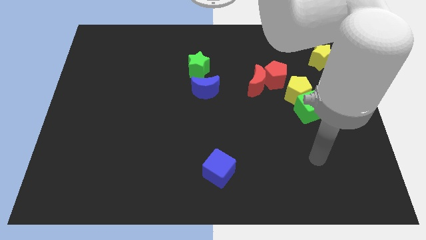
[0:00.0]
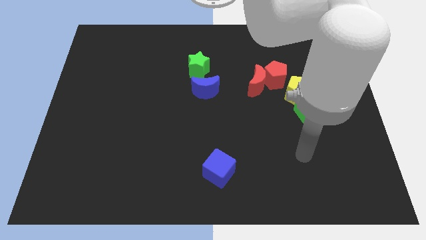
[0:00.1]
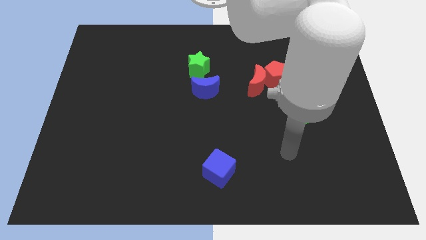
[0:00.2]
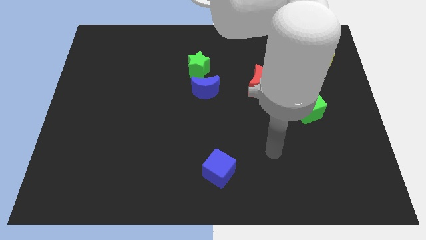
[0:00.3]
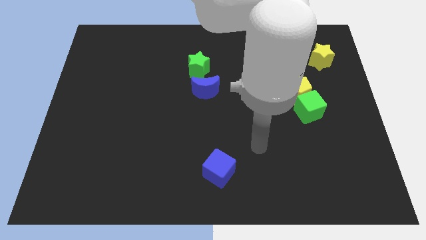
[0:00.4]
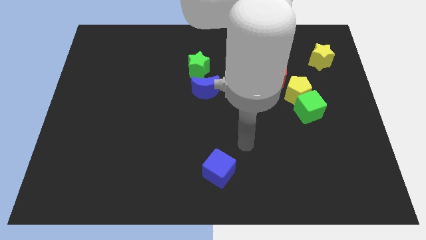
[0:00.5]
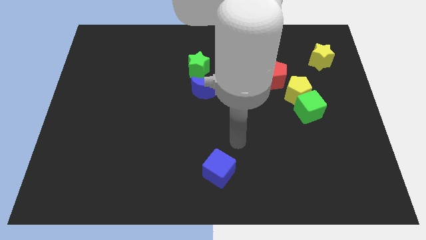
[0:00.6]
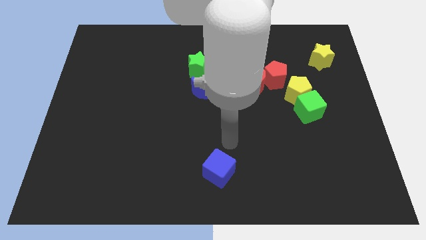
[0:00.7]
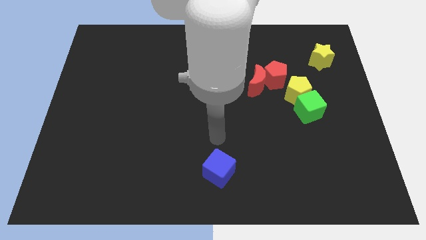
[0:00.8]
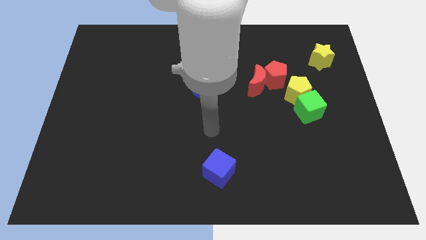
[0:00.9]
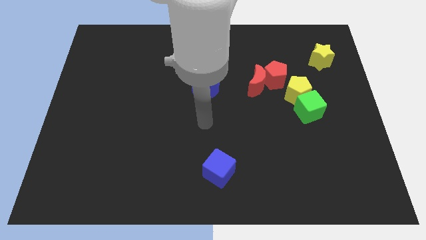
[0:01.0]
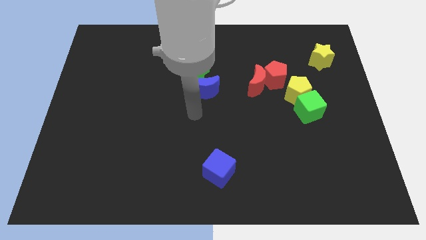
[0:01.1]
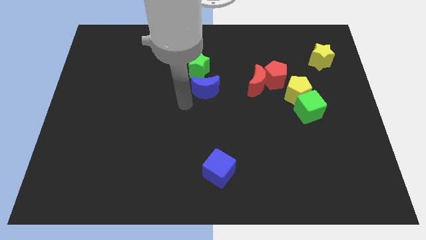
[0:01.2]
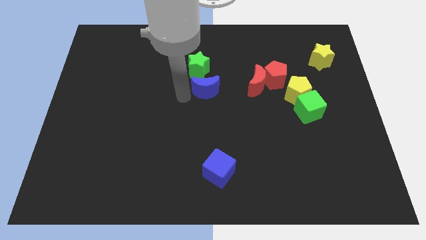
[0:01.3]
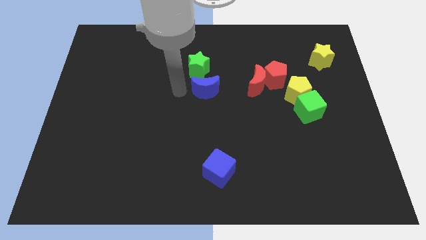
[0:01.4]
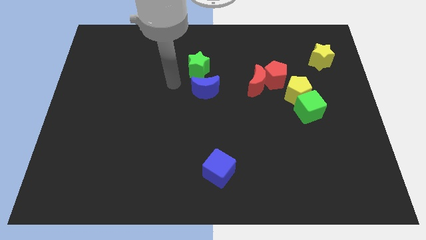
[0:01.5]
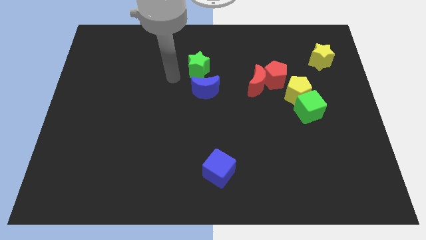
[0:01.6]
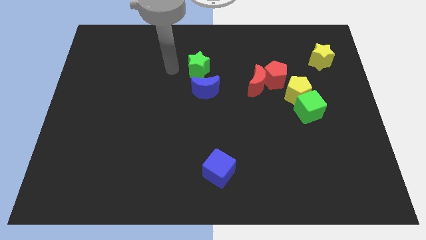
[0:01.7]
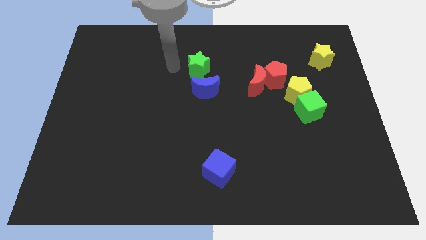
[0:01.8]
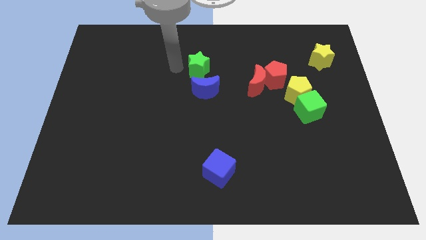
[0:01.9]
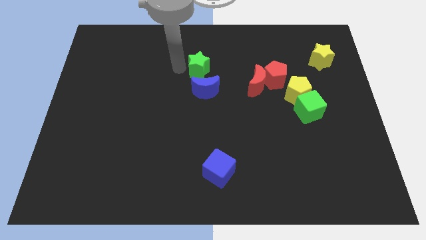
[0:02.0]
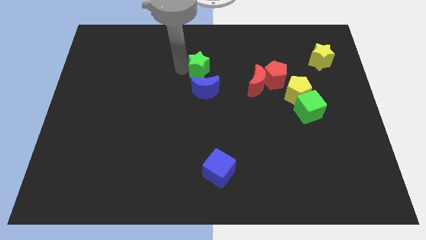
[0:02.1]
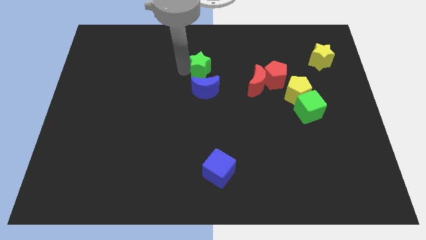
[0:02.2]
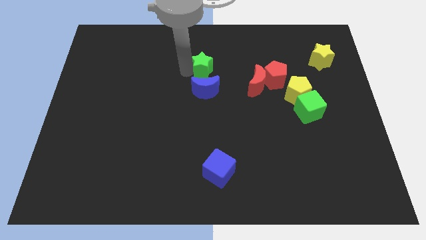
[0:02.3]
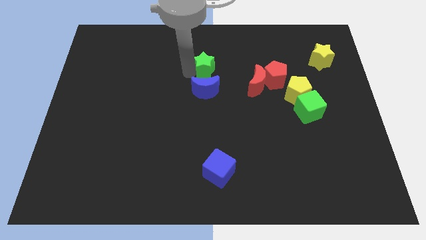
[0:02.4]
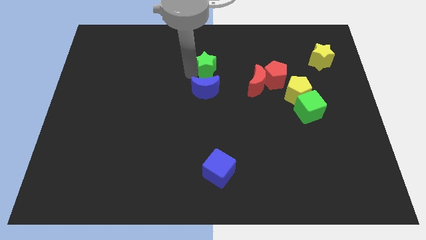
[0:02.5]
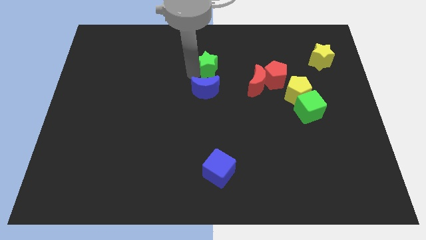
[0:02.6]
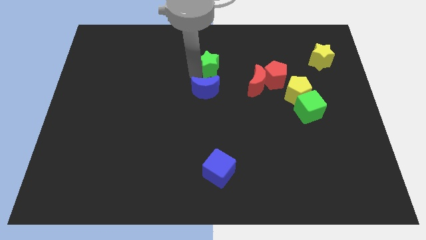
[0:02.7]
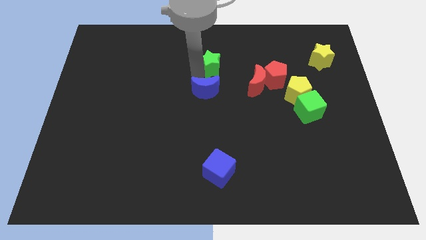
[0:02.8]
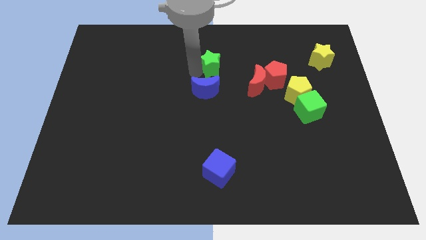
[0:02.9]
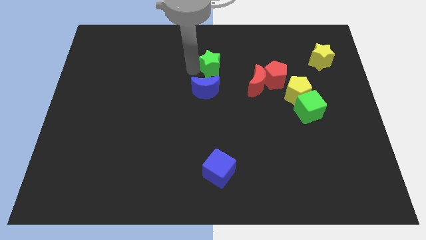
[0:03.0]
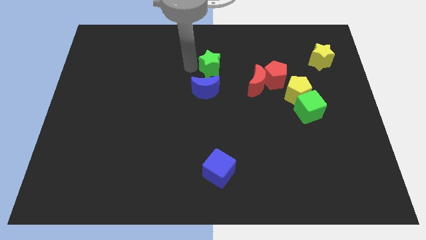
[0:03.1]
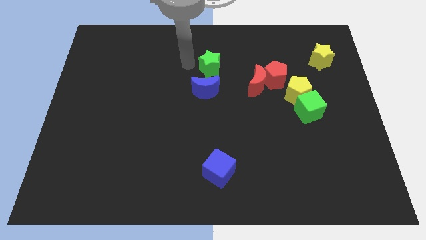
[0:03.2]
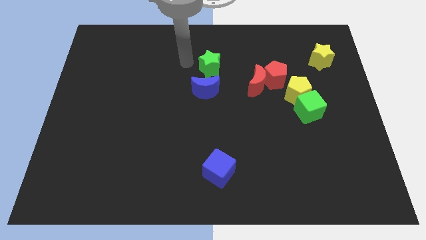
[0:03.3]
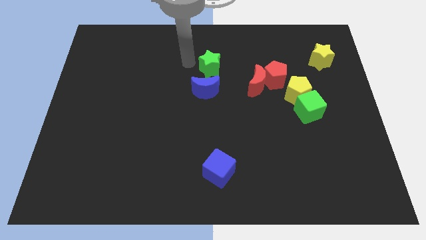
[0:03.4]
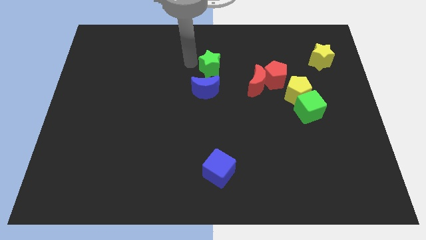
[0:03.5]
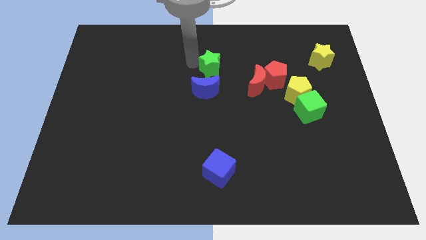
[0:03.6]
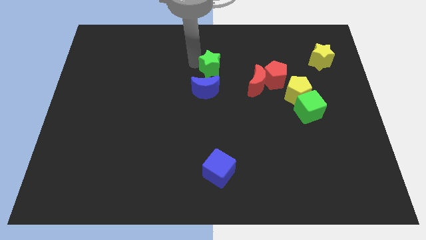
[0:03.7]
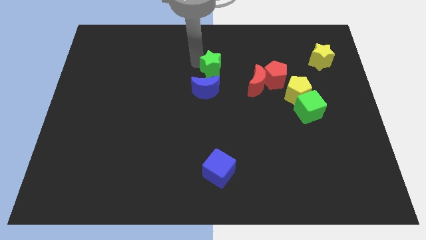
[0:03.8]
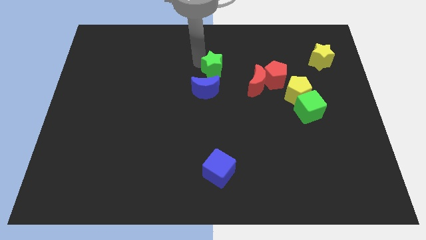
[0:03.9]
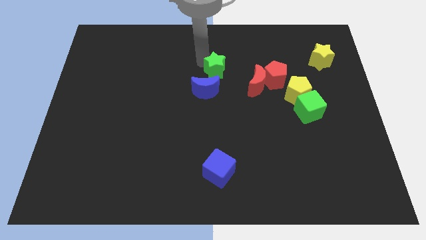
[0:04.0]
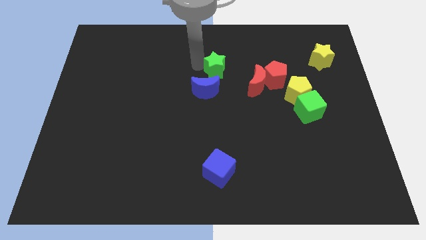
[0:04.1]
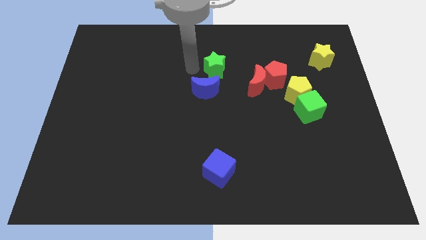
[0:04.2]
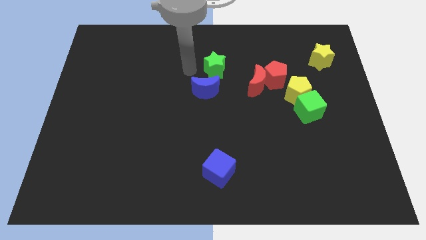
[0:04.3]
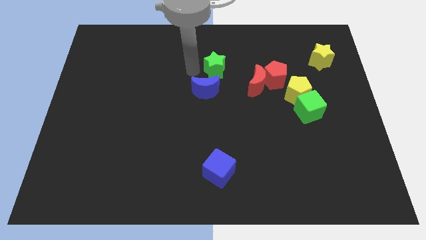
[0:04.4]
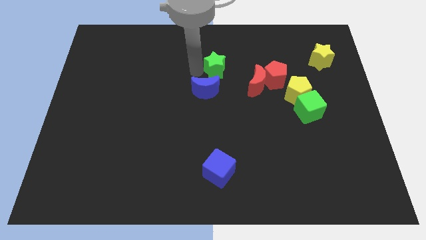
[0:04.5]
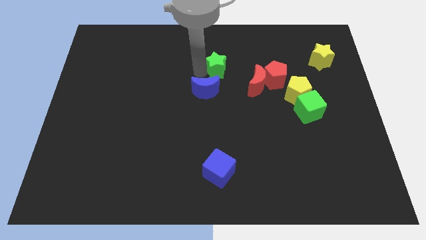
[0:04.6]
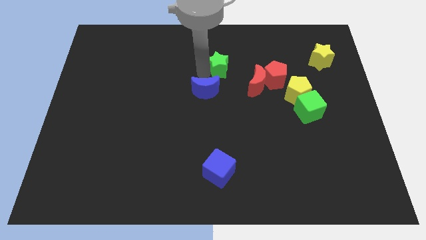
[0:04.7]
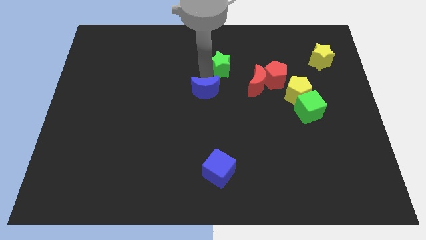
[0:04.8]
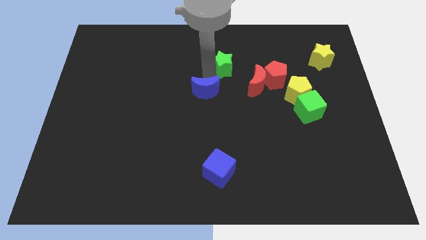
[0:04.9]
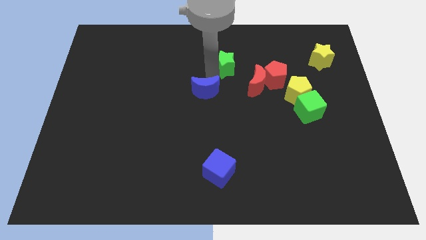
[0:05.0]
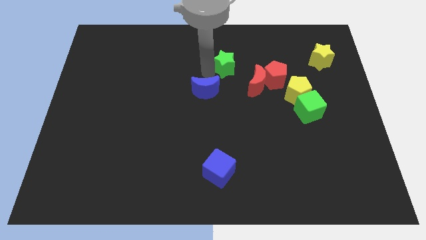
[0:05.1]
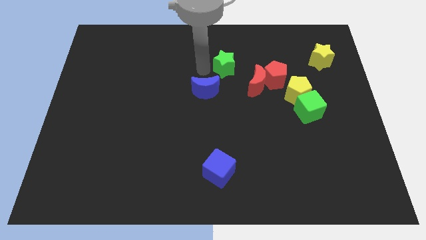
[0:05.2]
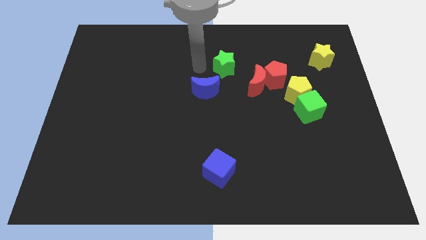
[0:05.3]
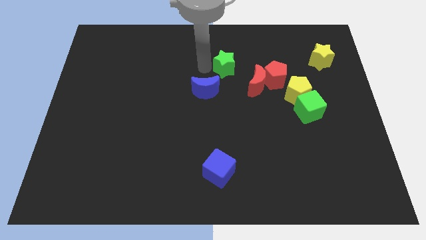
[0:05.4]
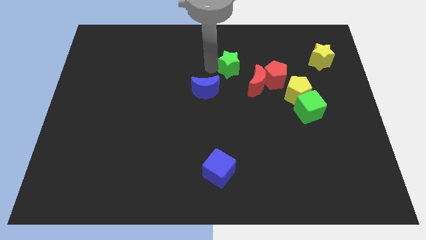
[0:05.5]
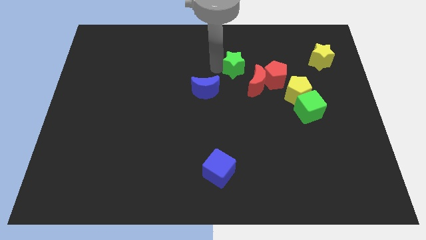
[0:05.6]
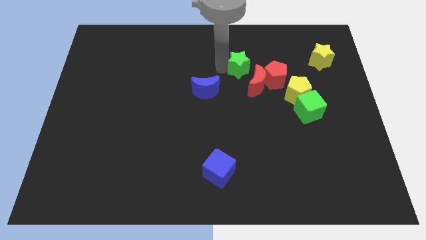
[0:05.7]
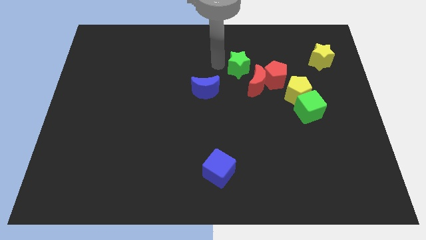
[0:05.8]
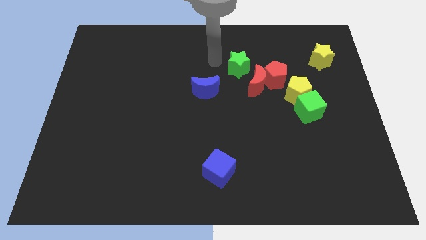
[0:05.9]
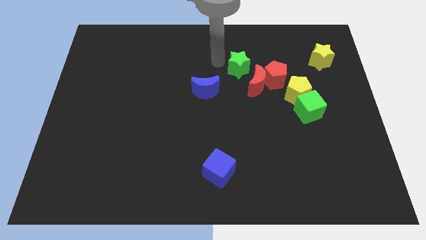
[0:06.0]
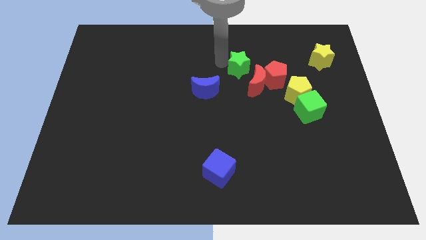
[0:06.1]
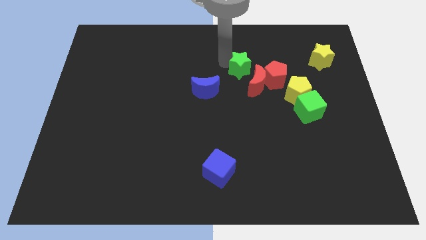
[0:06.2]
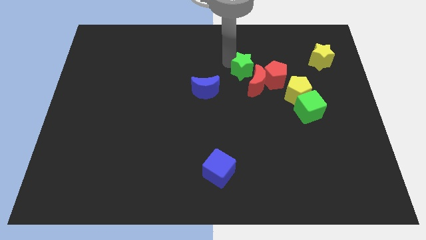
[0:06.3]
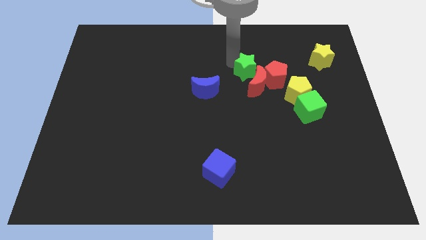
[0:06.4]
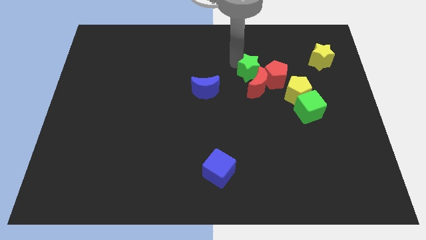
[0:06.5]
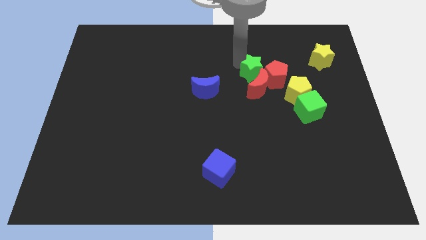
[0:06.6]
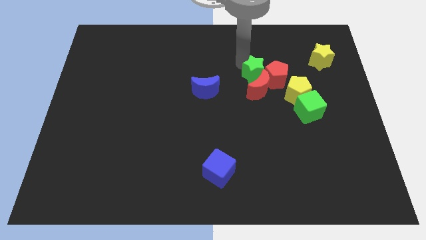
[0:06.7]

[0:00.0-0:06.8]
push the green star to the red pentagon

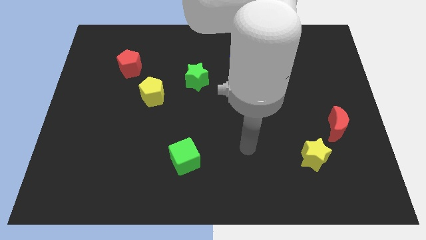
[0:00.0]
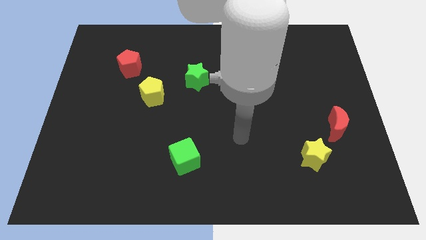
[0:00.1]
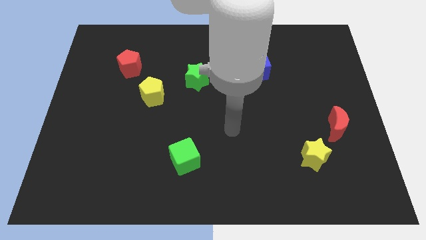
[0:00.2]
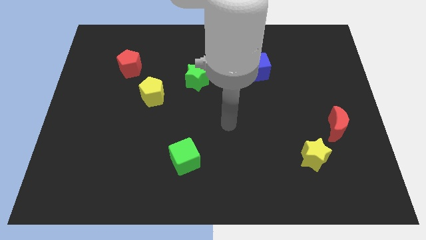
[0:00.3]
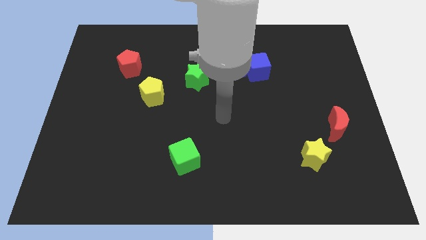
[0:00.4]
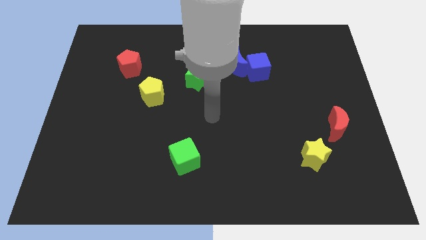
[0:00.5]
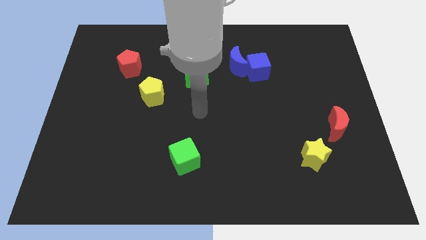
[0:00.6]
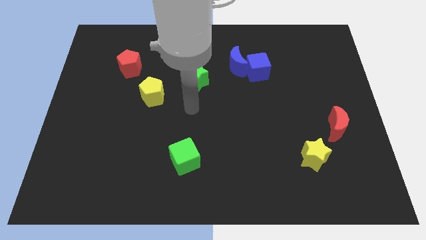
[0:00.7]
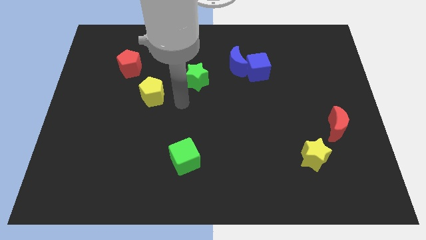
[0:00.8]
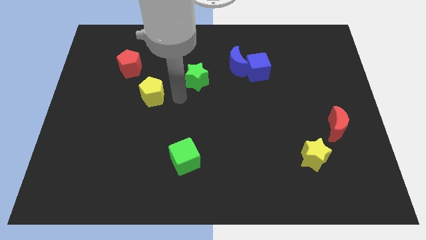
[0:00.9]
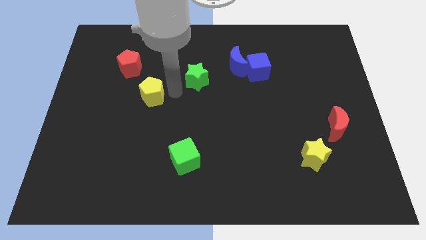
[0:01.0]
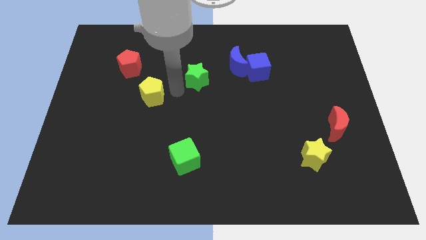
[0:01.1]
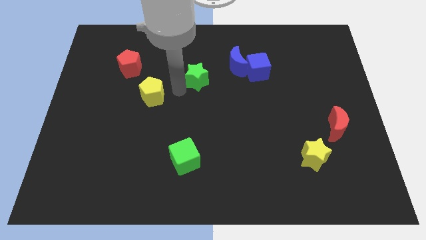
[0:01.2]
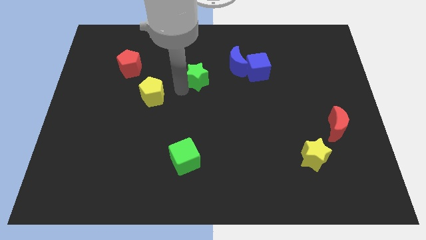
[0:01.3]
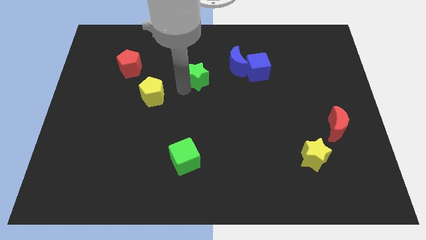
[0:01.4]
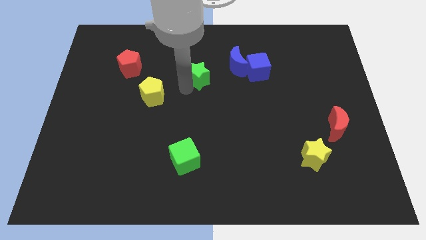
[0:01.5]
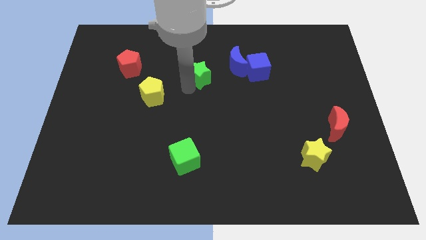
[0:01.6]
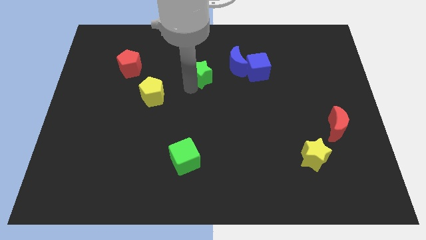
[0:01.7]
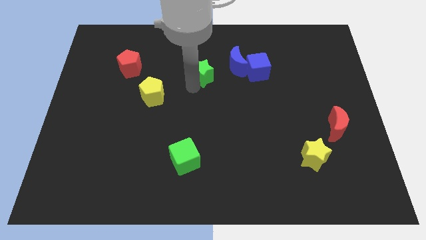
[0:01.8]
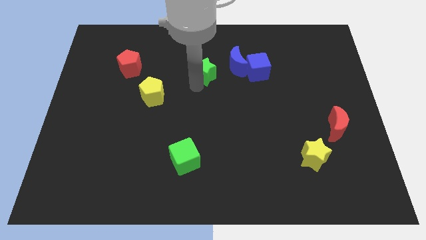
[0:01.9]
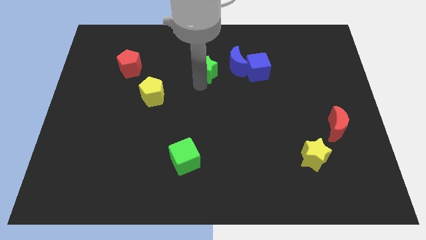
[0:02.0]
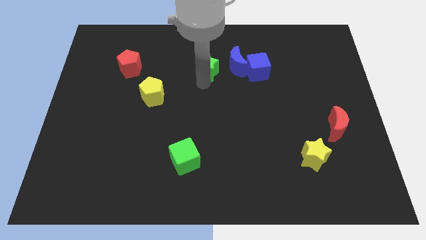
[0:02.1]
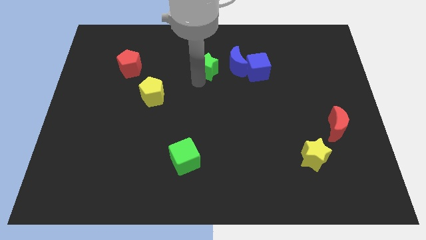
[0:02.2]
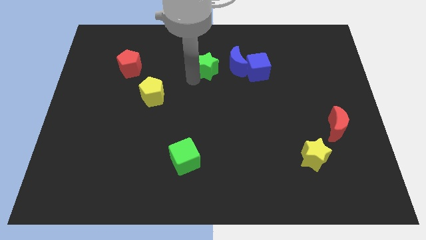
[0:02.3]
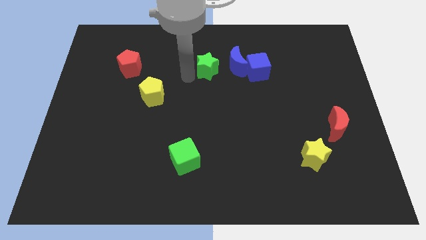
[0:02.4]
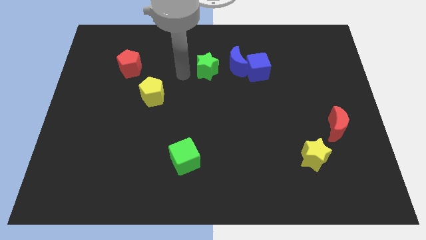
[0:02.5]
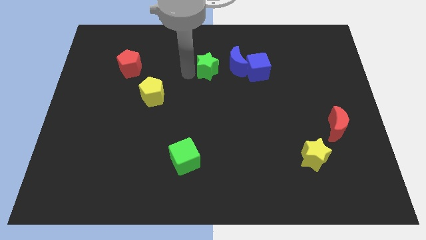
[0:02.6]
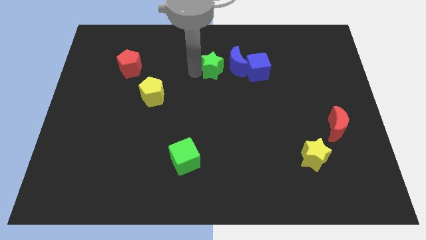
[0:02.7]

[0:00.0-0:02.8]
put the green star towards the blue moon
